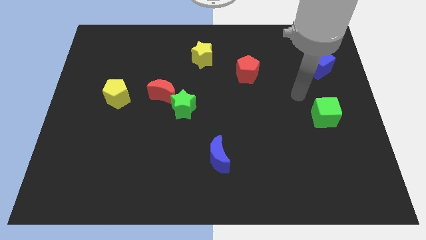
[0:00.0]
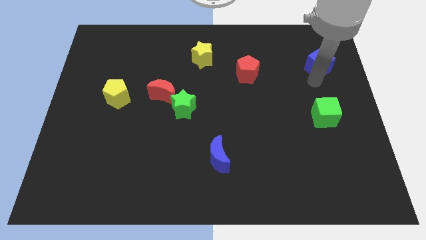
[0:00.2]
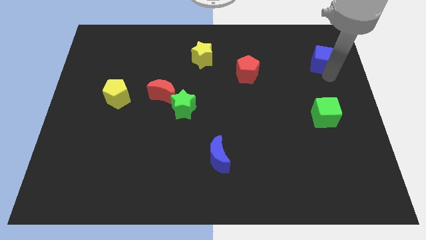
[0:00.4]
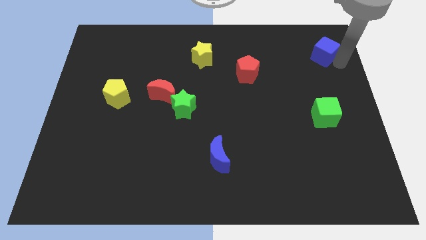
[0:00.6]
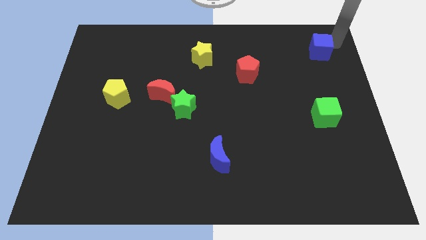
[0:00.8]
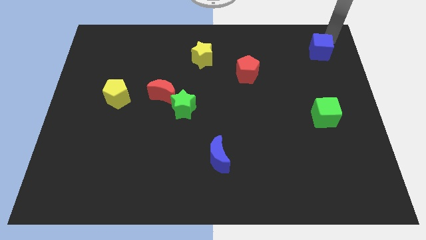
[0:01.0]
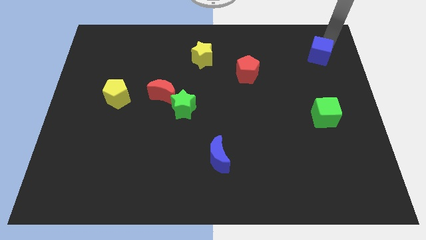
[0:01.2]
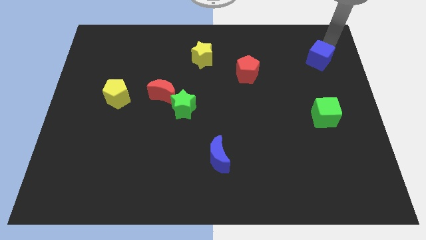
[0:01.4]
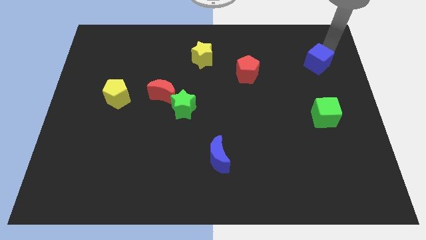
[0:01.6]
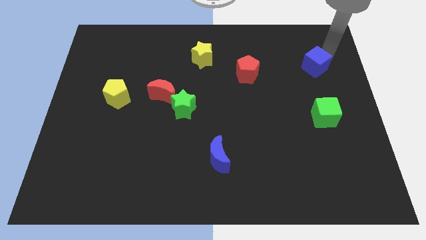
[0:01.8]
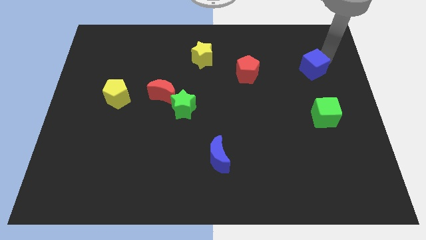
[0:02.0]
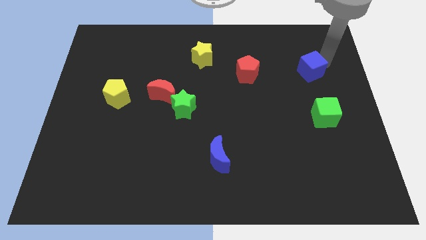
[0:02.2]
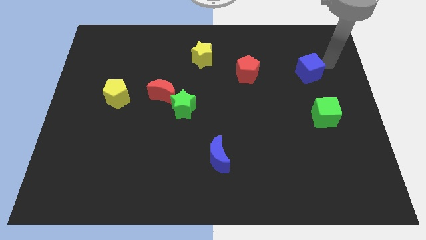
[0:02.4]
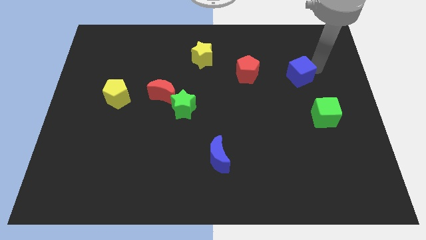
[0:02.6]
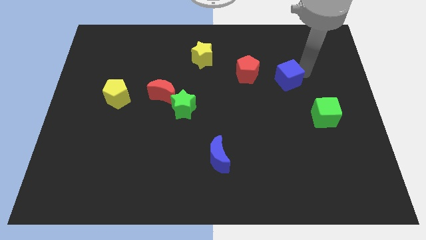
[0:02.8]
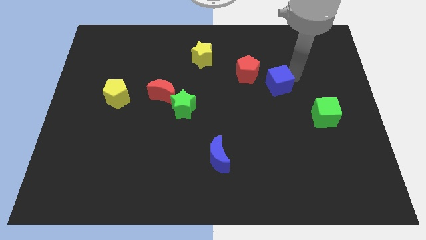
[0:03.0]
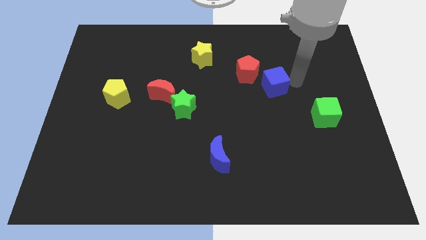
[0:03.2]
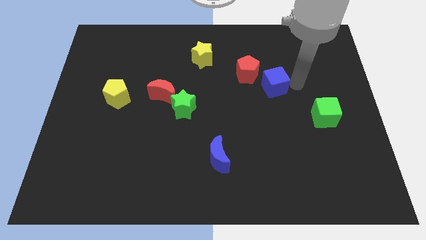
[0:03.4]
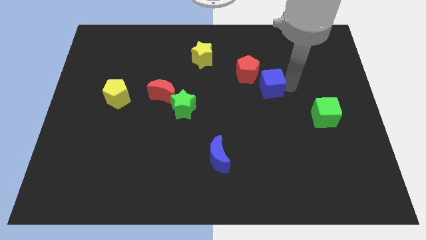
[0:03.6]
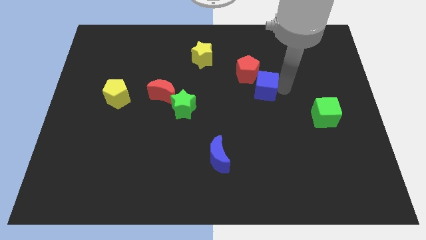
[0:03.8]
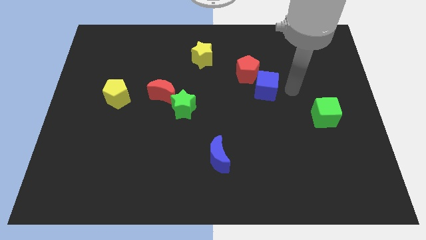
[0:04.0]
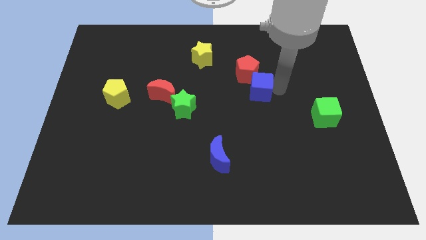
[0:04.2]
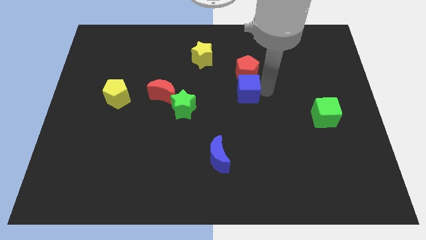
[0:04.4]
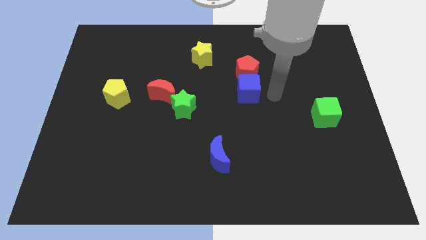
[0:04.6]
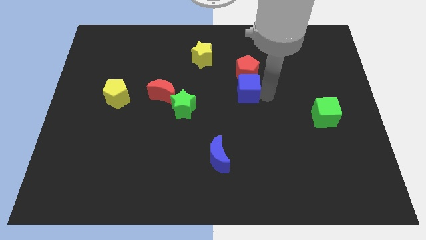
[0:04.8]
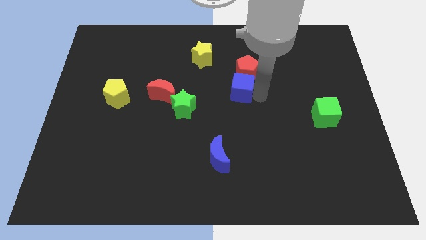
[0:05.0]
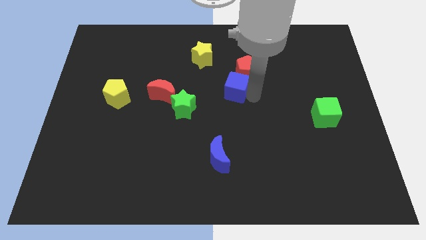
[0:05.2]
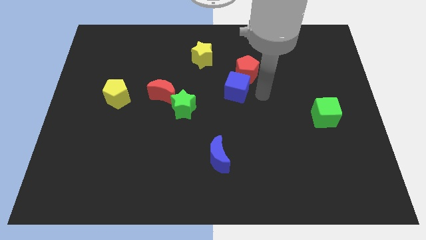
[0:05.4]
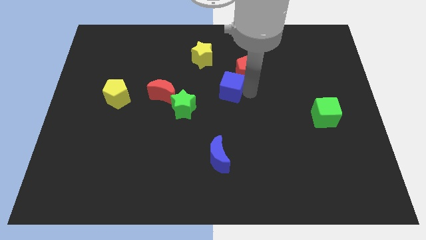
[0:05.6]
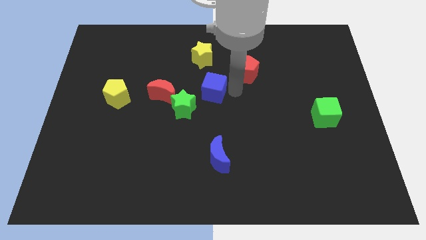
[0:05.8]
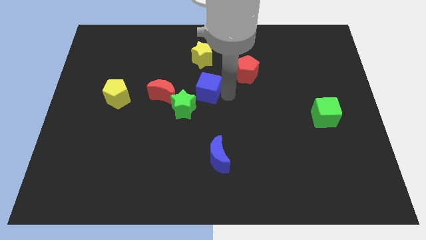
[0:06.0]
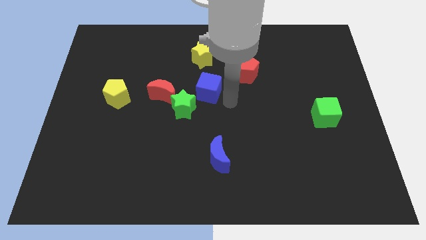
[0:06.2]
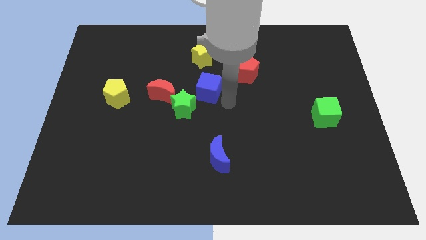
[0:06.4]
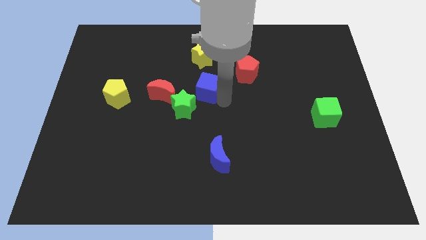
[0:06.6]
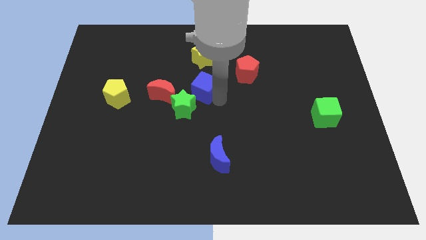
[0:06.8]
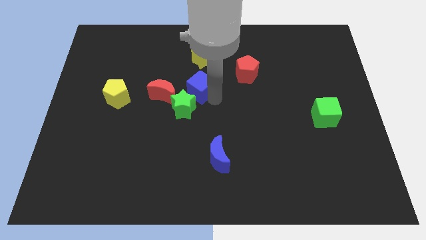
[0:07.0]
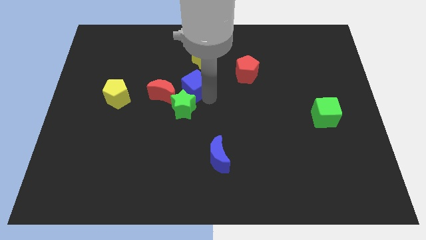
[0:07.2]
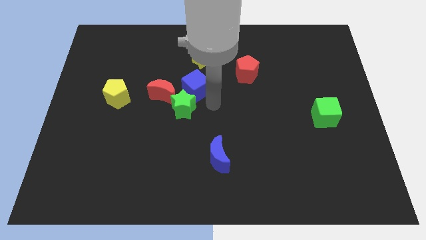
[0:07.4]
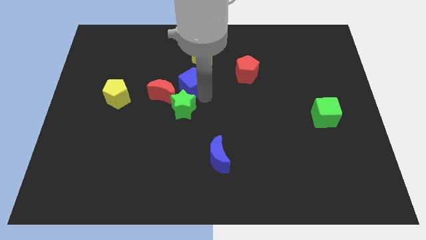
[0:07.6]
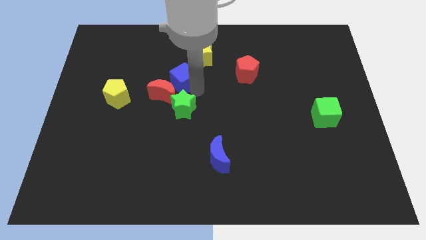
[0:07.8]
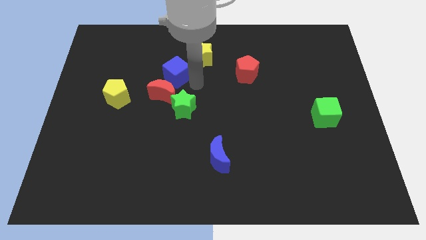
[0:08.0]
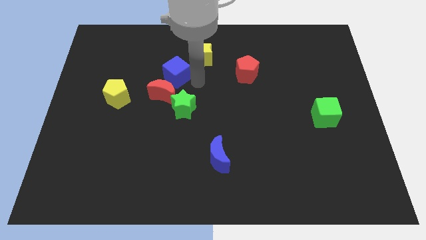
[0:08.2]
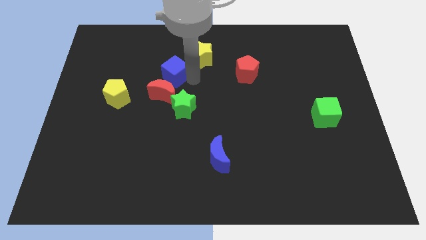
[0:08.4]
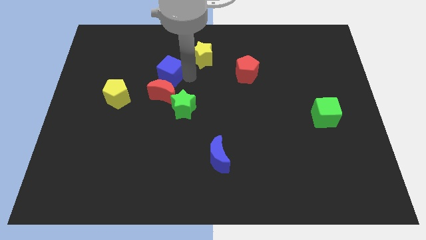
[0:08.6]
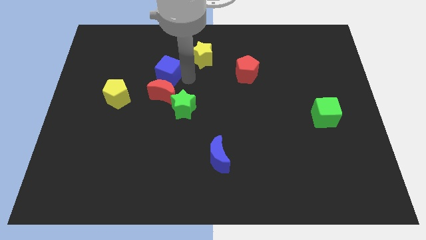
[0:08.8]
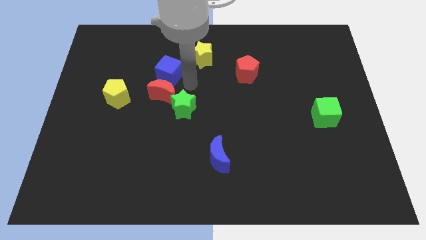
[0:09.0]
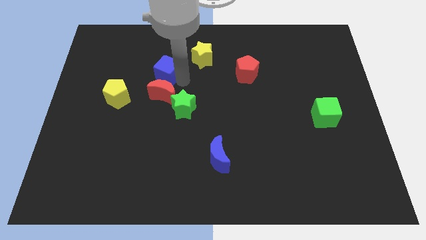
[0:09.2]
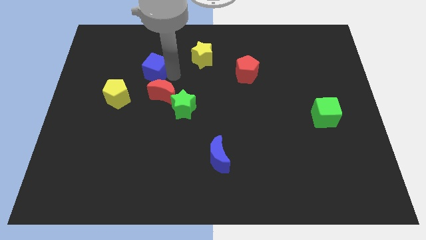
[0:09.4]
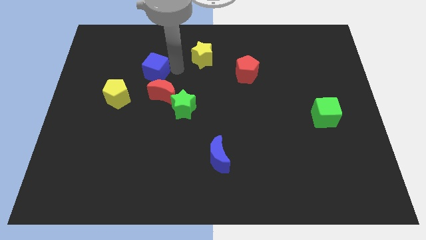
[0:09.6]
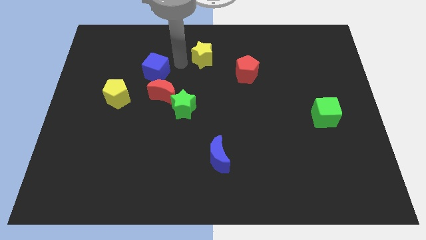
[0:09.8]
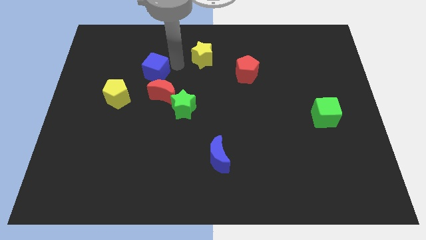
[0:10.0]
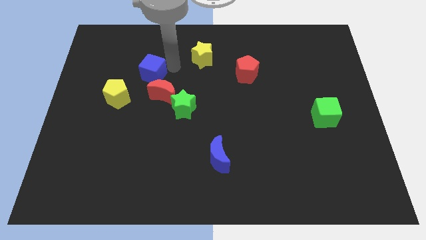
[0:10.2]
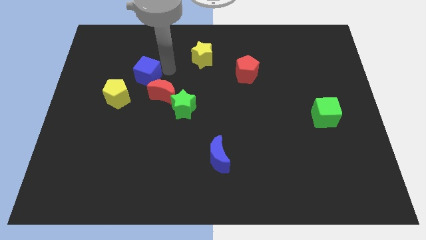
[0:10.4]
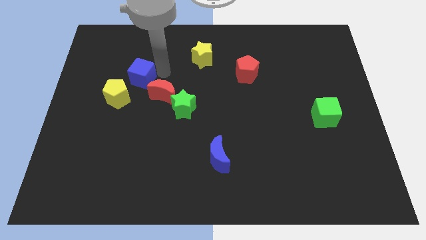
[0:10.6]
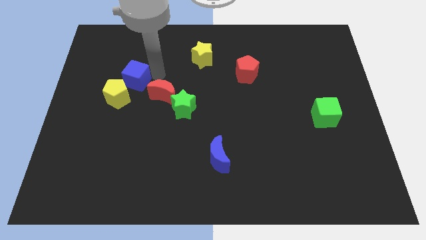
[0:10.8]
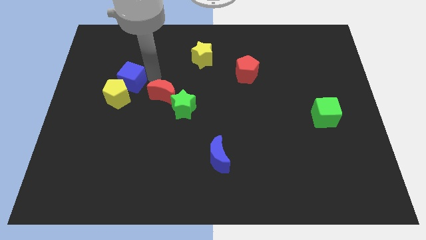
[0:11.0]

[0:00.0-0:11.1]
put the blue cube towards the yellow pentagon

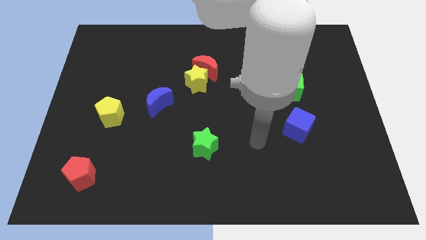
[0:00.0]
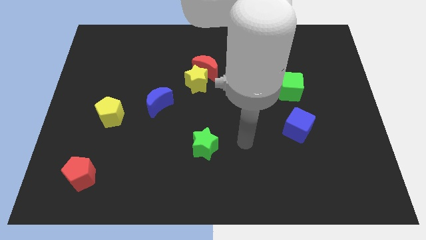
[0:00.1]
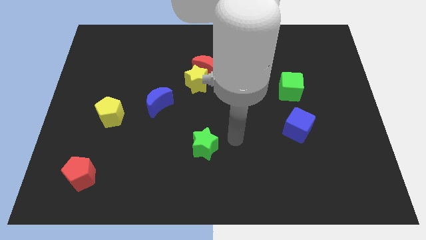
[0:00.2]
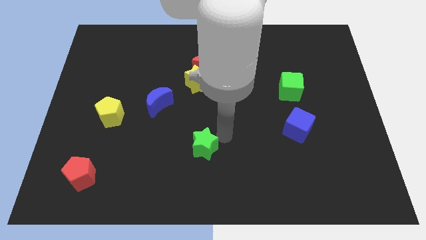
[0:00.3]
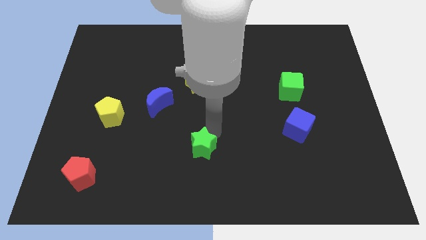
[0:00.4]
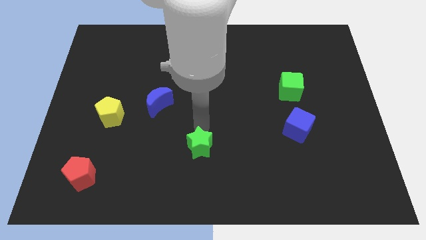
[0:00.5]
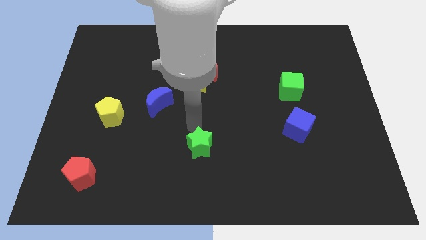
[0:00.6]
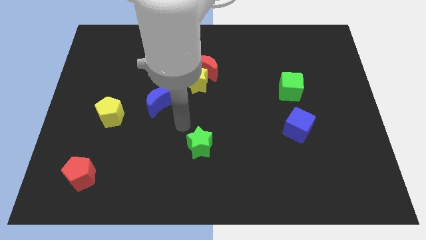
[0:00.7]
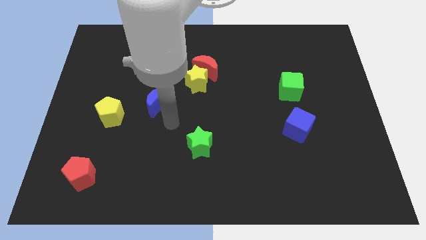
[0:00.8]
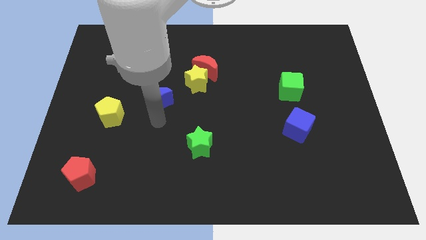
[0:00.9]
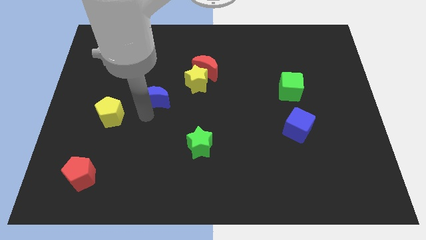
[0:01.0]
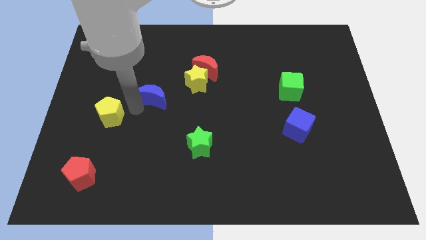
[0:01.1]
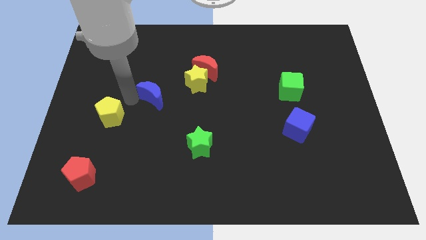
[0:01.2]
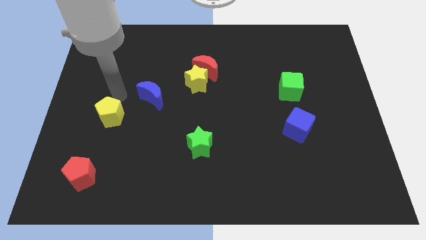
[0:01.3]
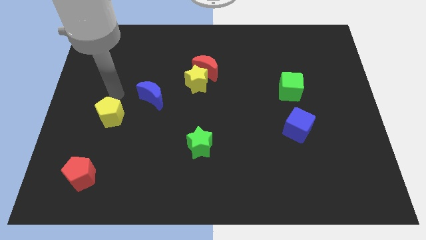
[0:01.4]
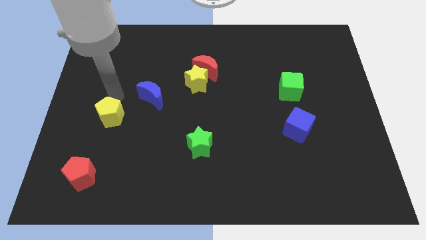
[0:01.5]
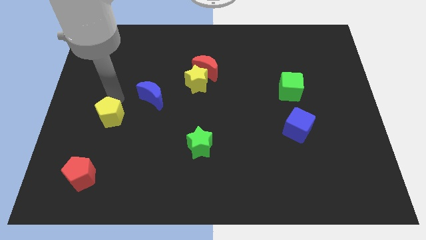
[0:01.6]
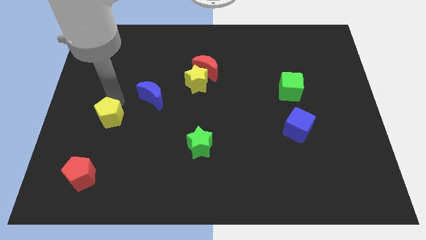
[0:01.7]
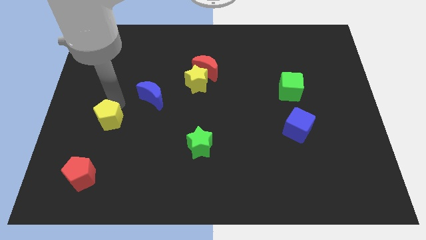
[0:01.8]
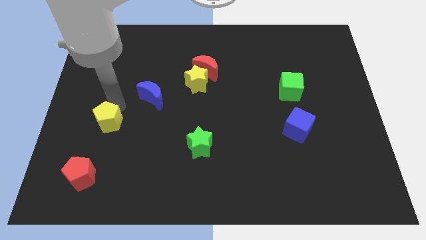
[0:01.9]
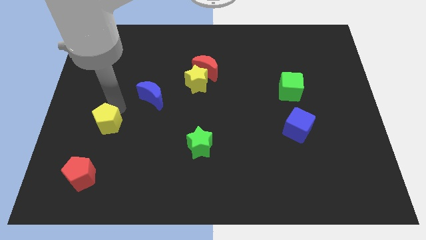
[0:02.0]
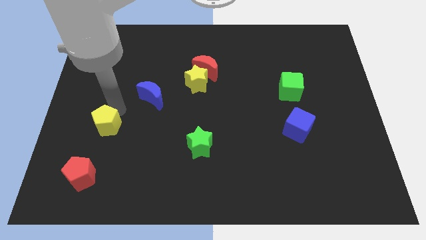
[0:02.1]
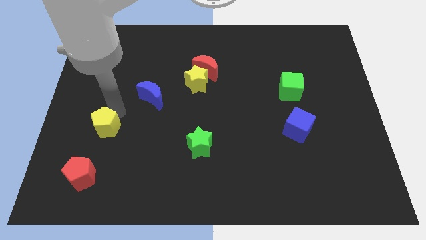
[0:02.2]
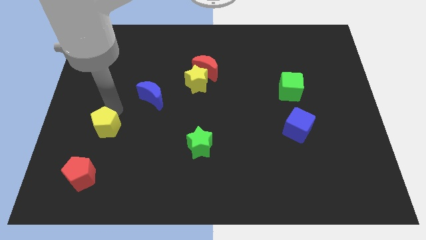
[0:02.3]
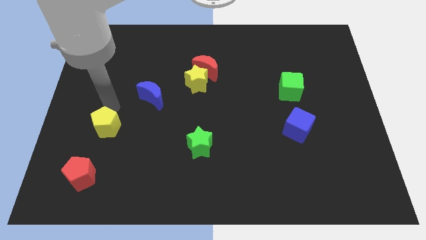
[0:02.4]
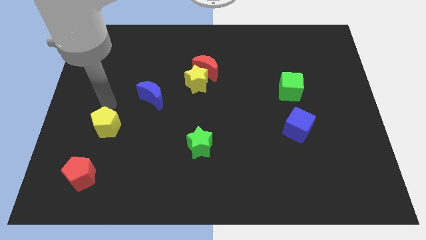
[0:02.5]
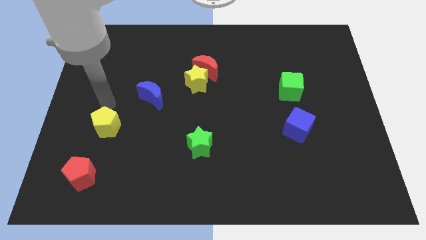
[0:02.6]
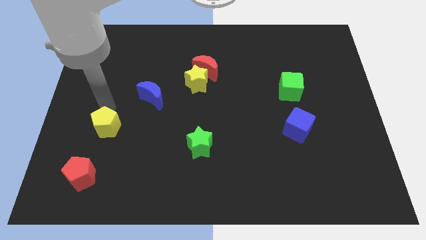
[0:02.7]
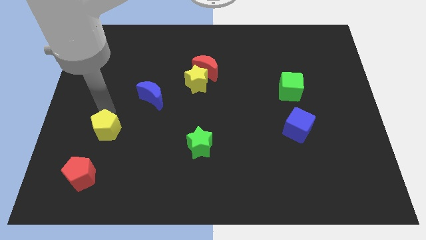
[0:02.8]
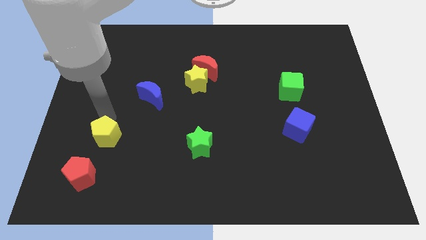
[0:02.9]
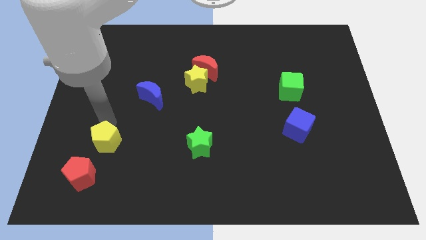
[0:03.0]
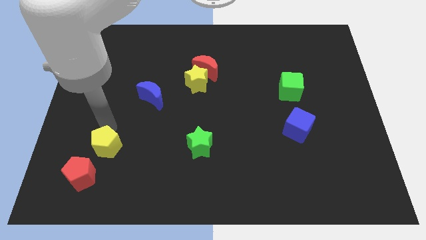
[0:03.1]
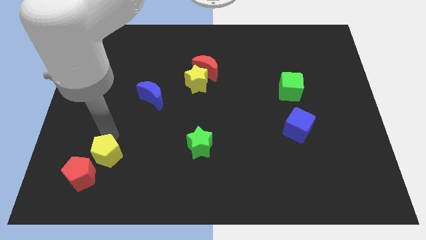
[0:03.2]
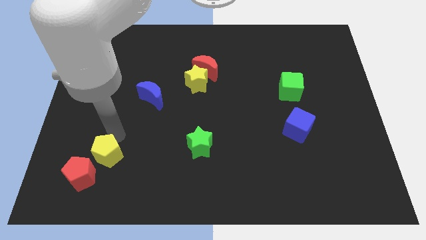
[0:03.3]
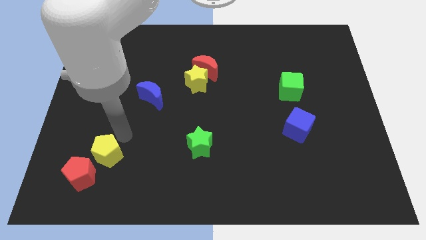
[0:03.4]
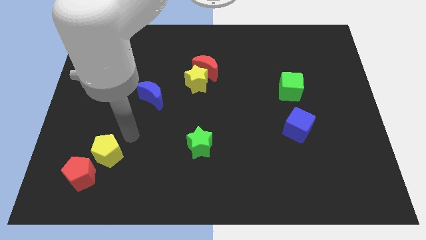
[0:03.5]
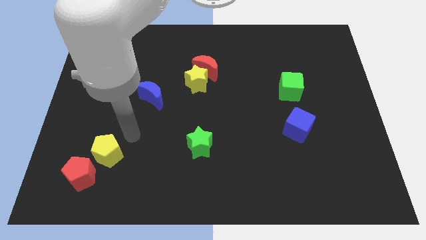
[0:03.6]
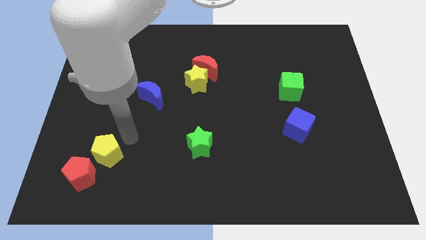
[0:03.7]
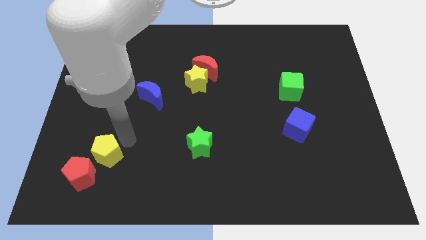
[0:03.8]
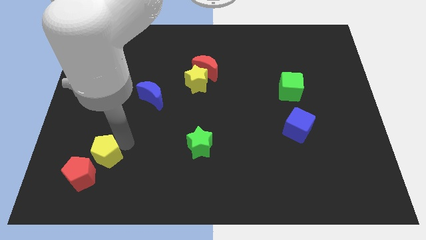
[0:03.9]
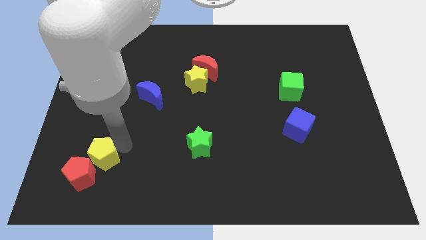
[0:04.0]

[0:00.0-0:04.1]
put the yellow pentagon to the red pentagon
